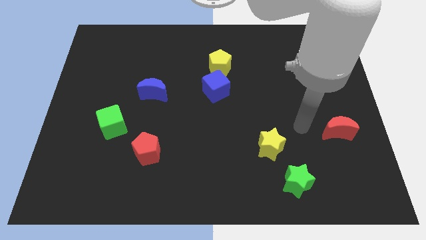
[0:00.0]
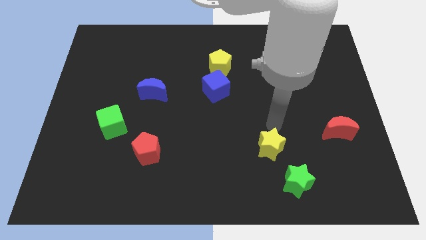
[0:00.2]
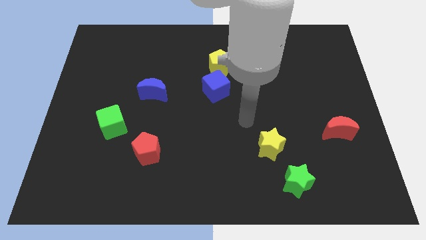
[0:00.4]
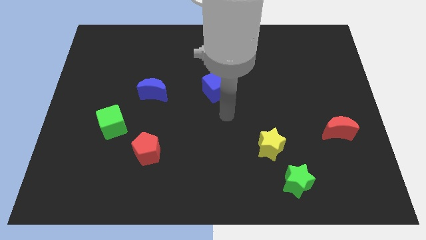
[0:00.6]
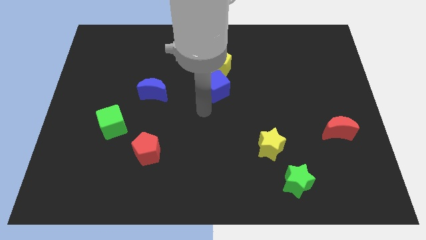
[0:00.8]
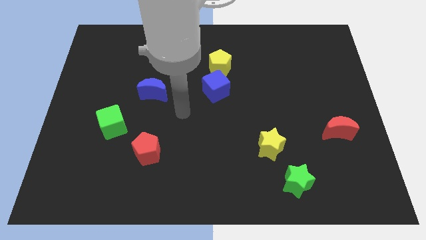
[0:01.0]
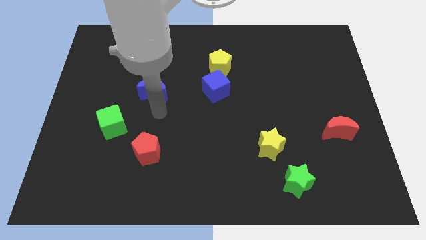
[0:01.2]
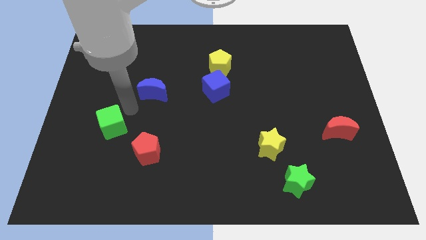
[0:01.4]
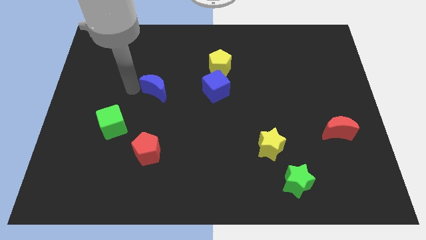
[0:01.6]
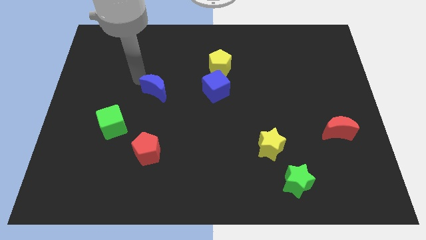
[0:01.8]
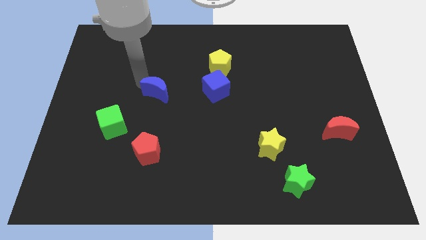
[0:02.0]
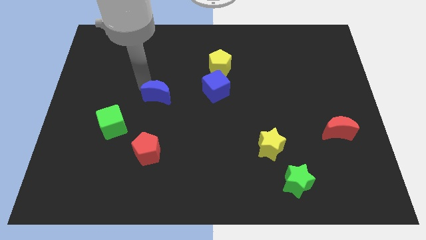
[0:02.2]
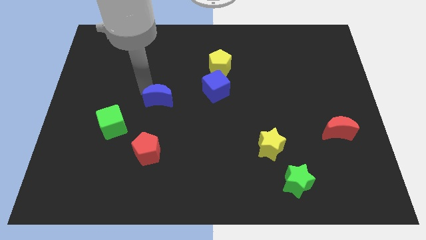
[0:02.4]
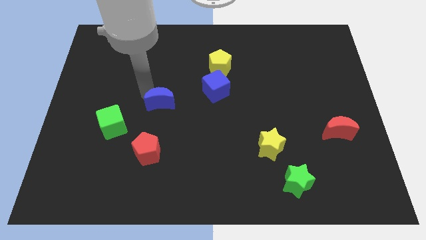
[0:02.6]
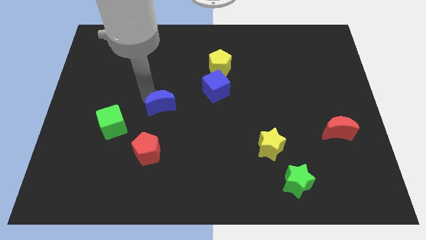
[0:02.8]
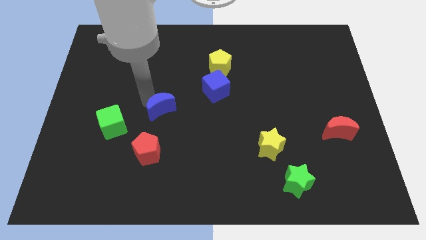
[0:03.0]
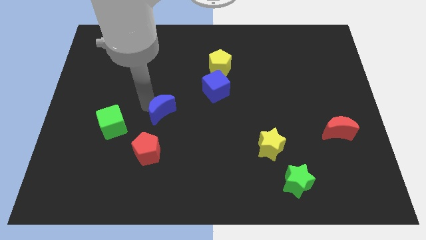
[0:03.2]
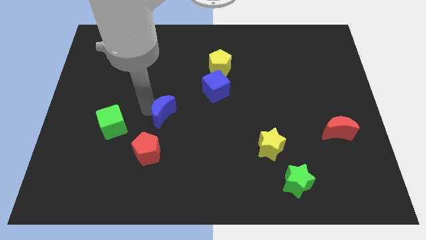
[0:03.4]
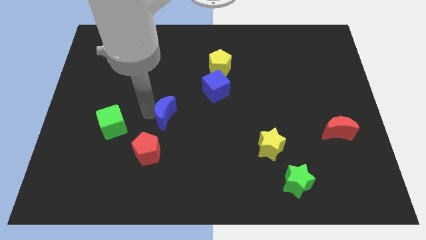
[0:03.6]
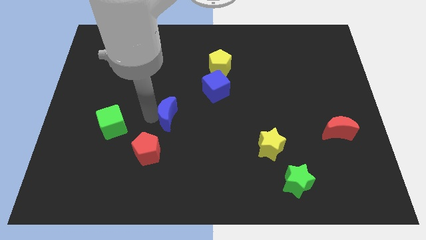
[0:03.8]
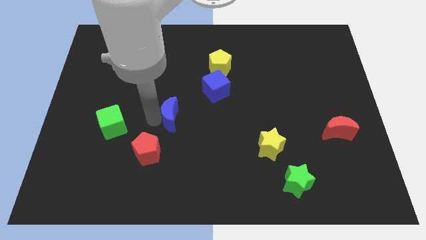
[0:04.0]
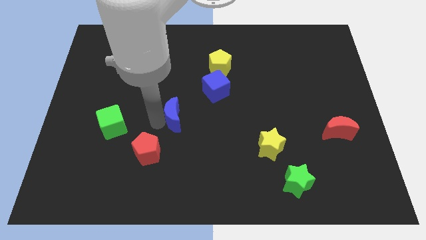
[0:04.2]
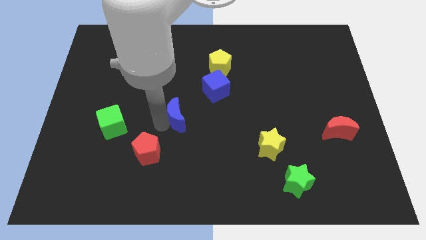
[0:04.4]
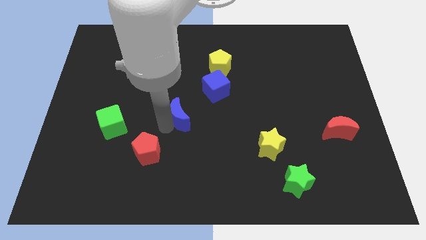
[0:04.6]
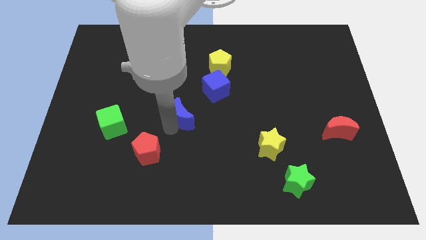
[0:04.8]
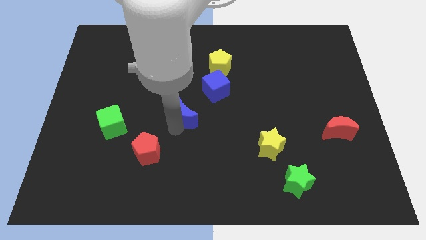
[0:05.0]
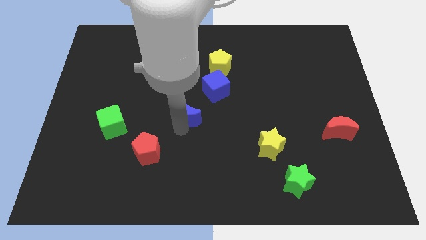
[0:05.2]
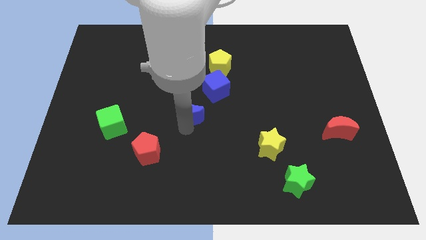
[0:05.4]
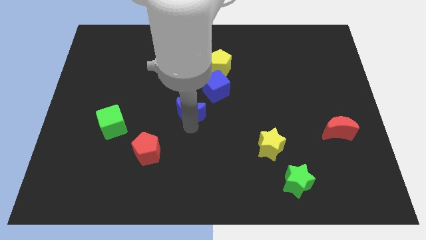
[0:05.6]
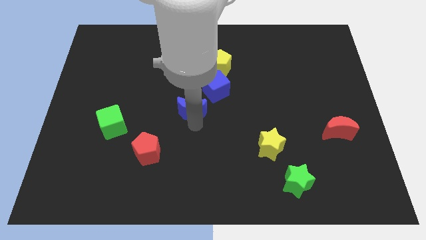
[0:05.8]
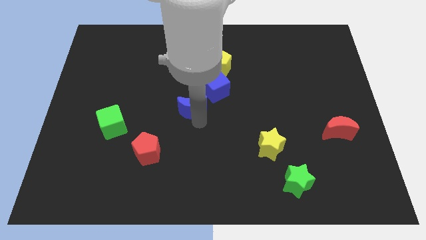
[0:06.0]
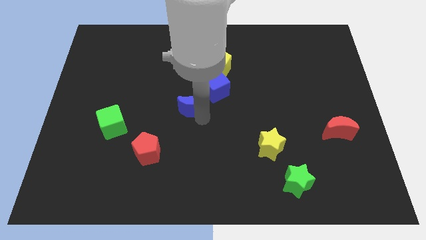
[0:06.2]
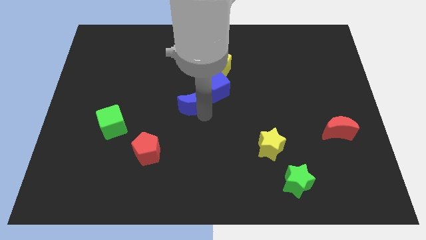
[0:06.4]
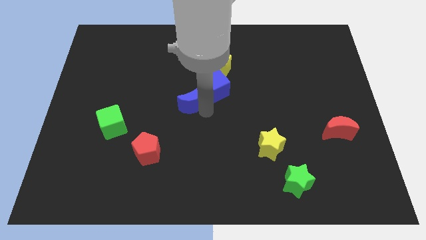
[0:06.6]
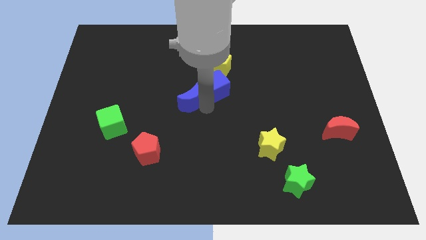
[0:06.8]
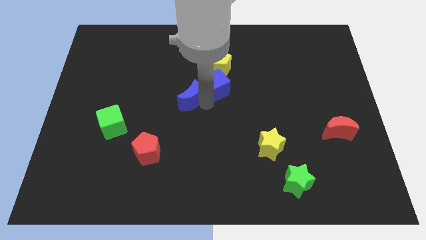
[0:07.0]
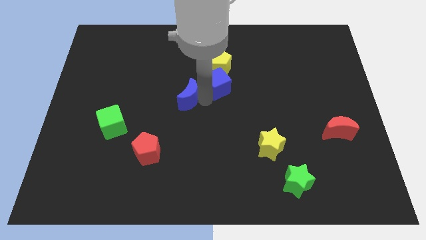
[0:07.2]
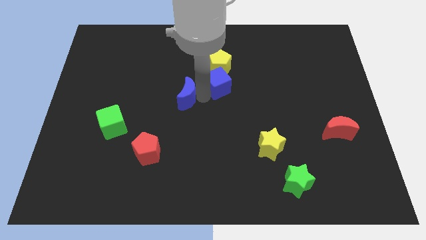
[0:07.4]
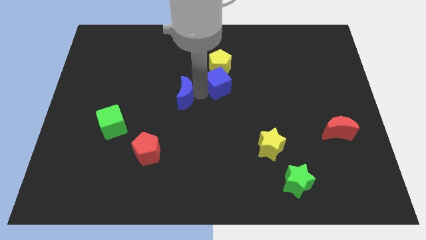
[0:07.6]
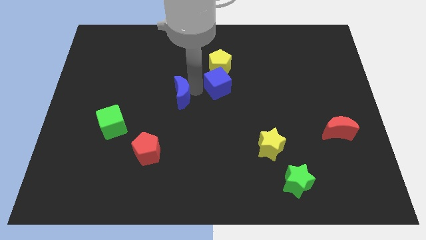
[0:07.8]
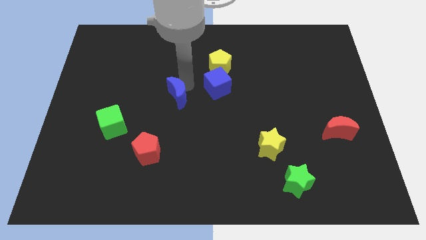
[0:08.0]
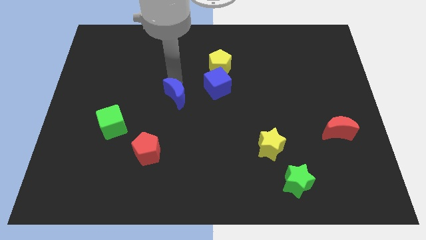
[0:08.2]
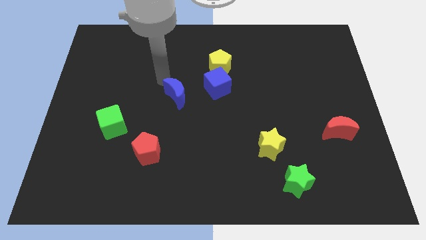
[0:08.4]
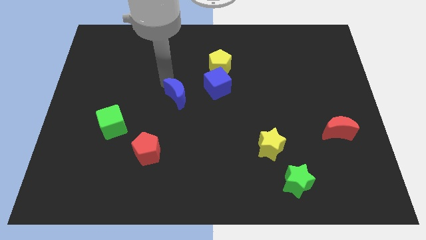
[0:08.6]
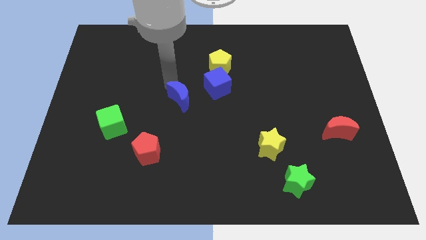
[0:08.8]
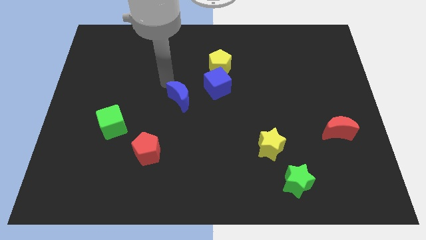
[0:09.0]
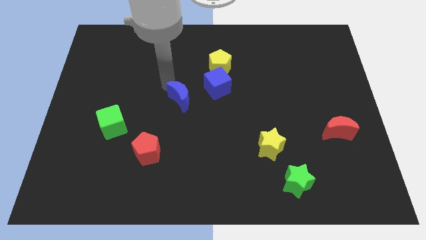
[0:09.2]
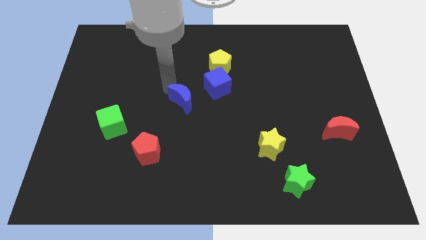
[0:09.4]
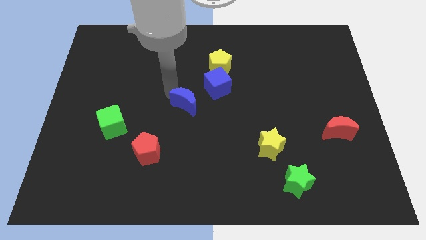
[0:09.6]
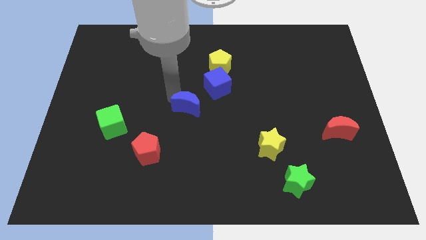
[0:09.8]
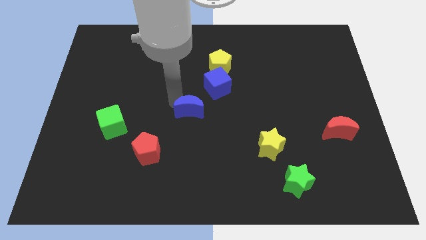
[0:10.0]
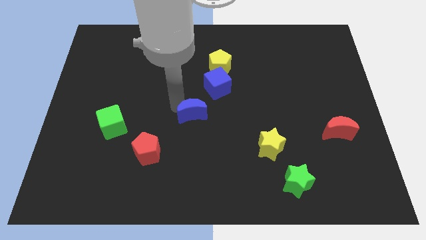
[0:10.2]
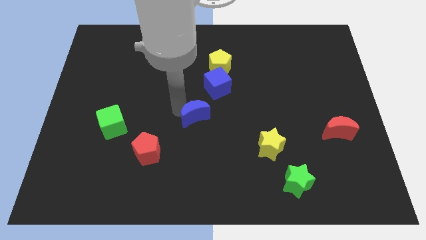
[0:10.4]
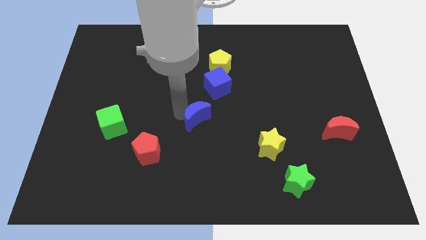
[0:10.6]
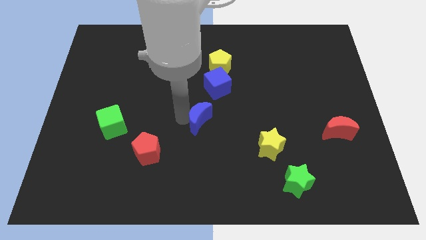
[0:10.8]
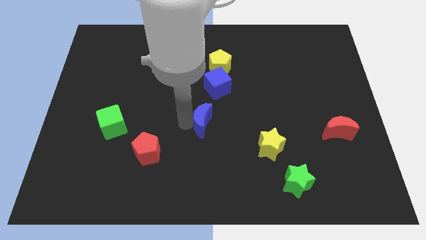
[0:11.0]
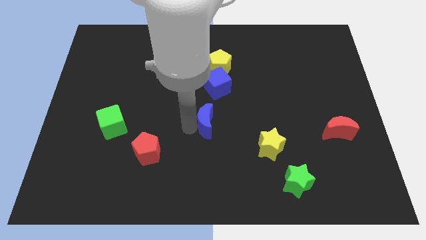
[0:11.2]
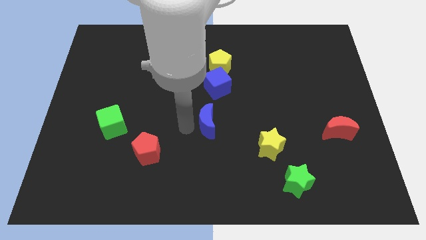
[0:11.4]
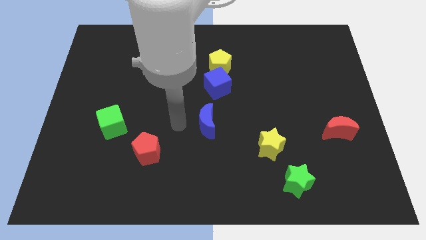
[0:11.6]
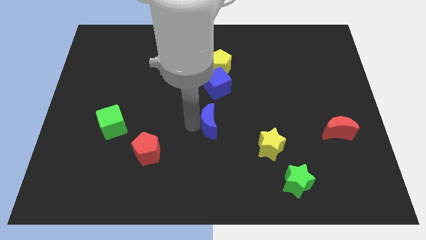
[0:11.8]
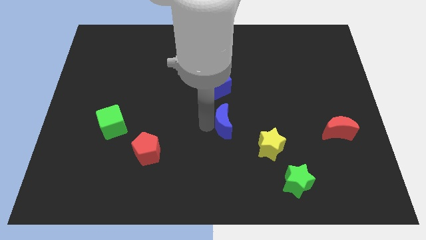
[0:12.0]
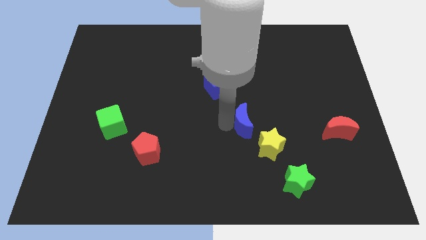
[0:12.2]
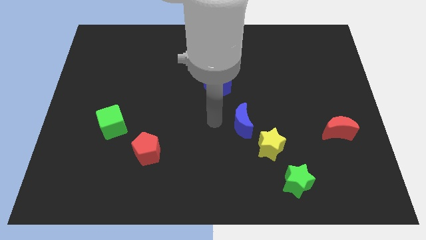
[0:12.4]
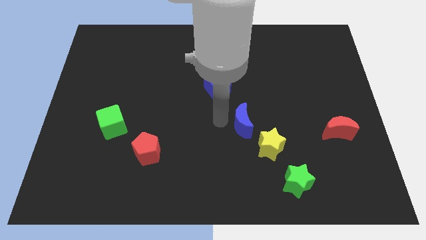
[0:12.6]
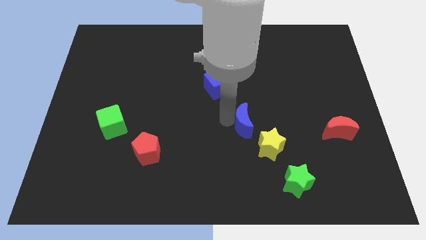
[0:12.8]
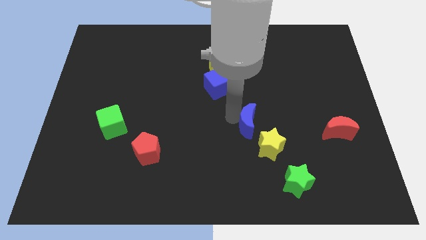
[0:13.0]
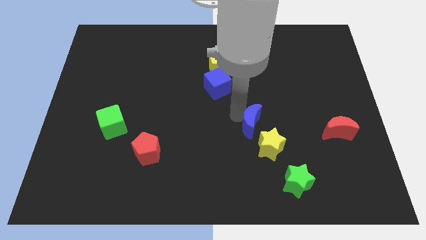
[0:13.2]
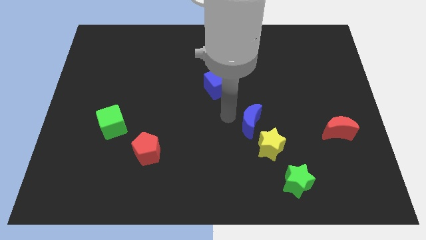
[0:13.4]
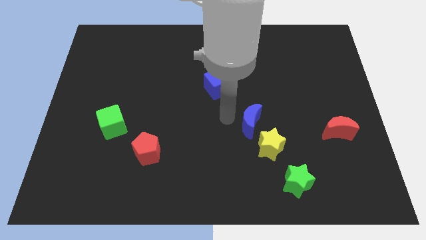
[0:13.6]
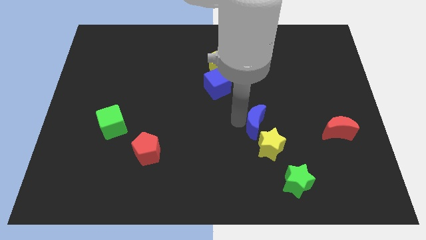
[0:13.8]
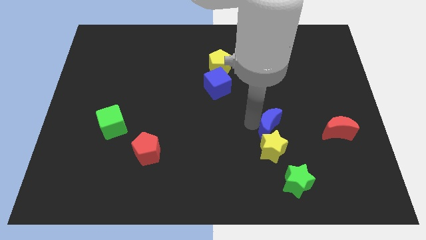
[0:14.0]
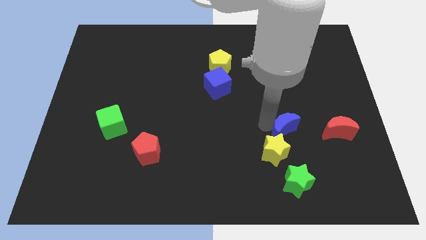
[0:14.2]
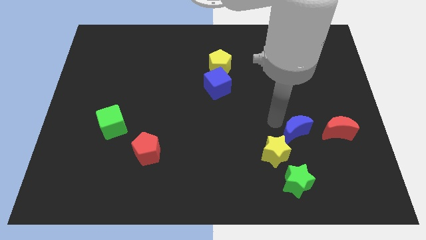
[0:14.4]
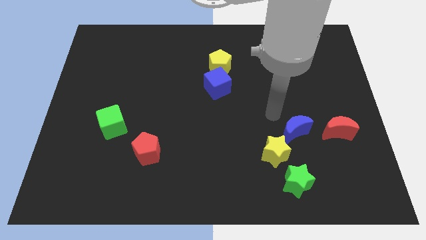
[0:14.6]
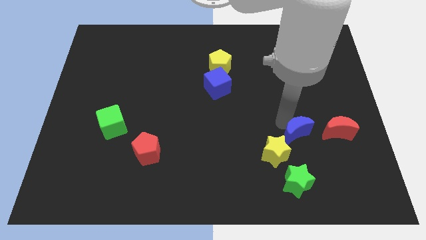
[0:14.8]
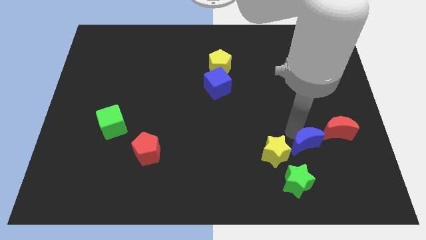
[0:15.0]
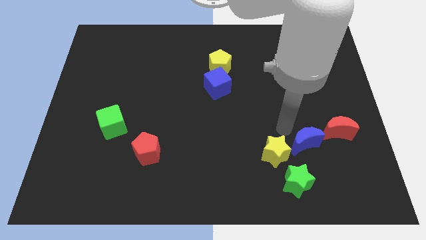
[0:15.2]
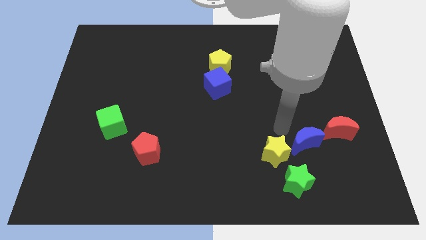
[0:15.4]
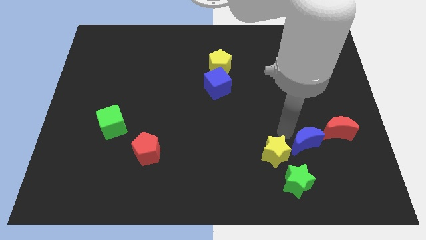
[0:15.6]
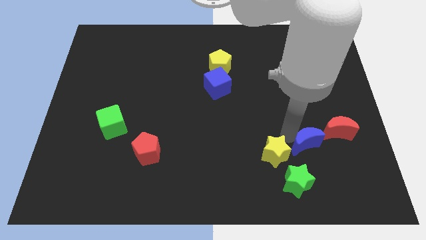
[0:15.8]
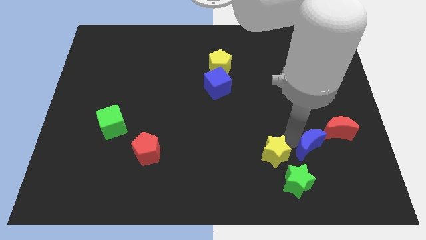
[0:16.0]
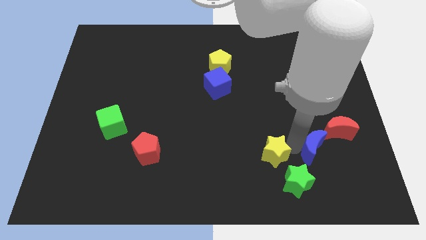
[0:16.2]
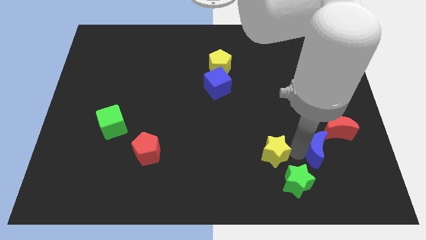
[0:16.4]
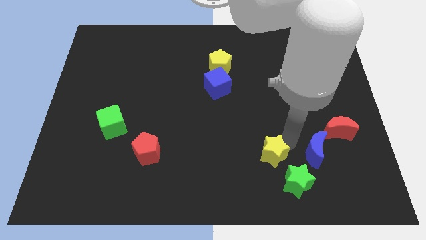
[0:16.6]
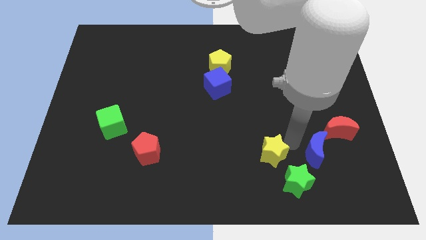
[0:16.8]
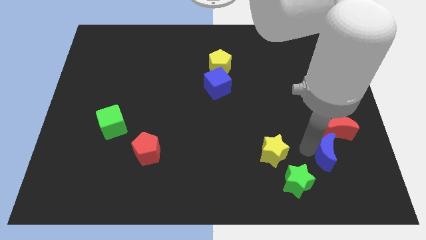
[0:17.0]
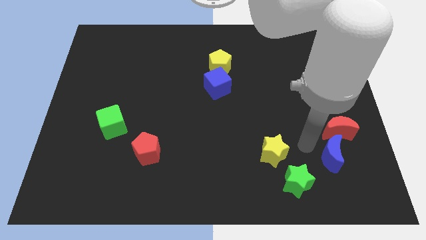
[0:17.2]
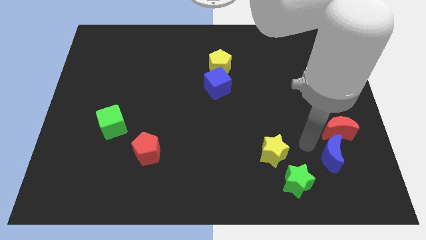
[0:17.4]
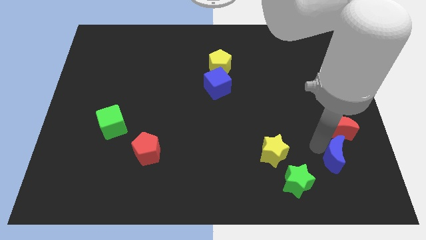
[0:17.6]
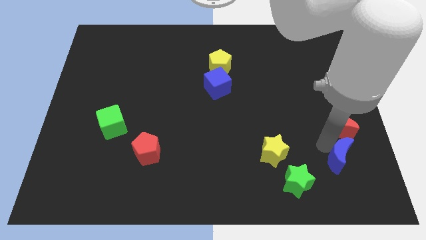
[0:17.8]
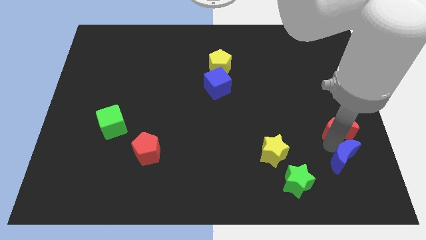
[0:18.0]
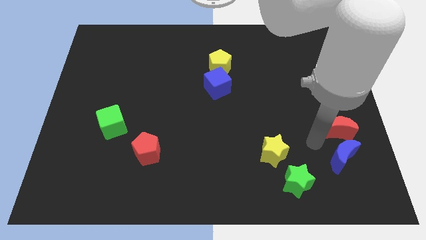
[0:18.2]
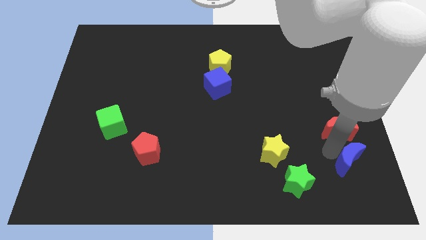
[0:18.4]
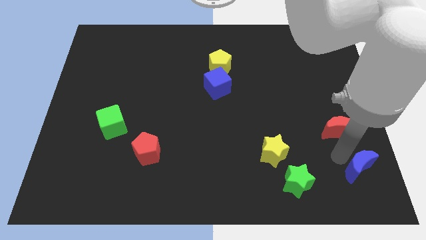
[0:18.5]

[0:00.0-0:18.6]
push the blue moon to the bottom right
